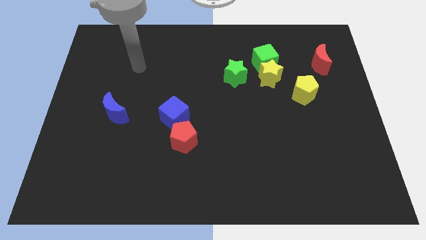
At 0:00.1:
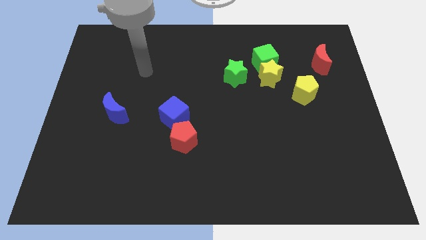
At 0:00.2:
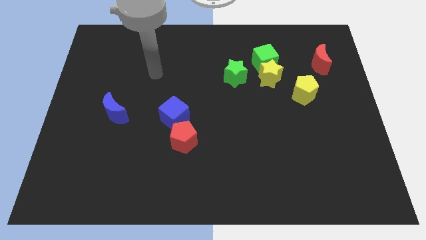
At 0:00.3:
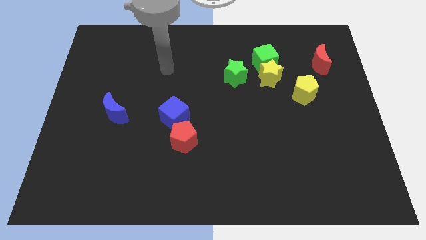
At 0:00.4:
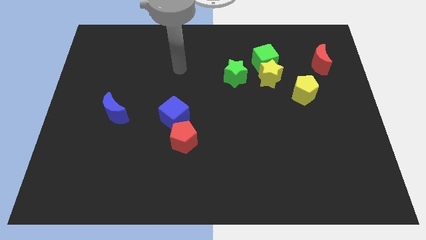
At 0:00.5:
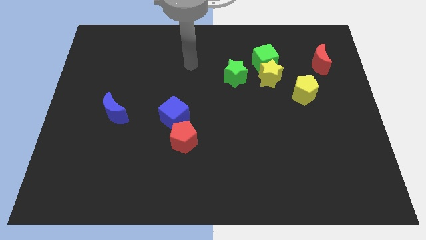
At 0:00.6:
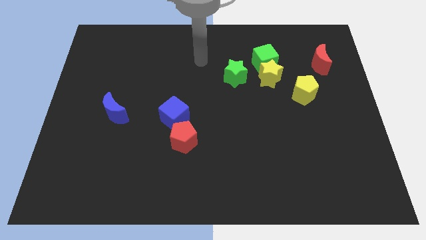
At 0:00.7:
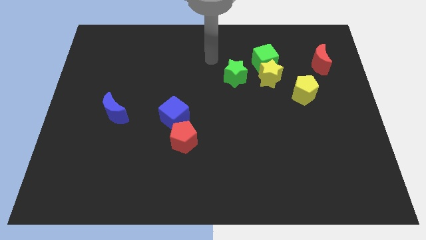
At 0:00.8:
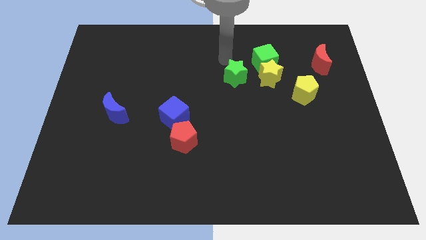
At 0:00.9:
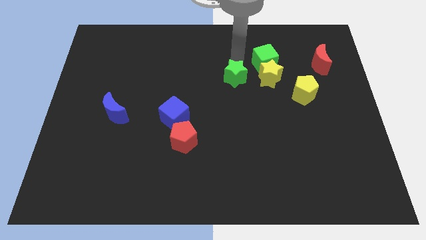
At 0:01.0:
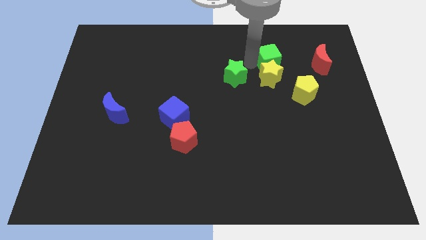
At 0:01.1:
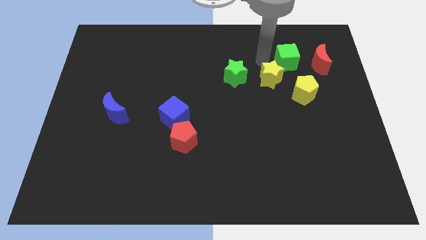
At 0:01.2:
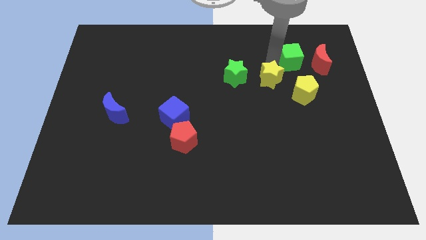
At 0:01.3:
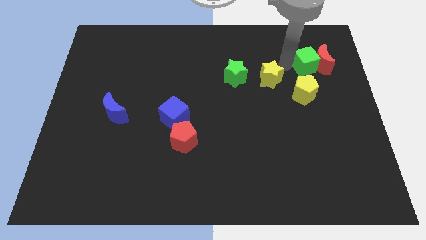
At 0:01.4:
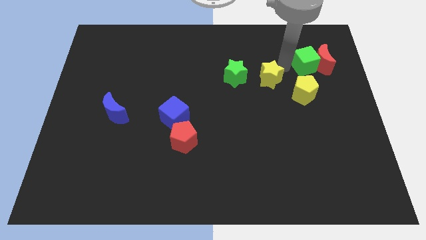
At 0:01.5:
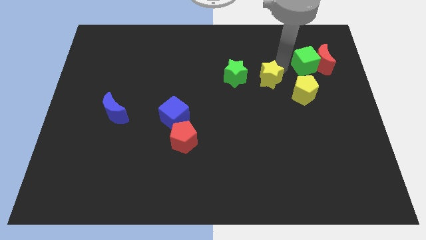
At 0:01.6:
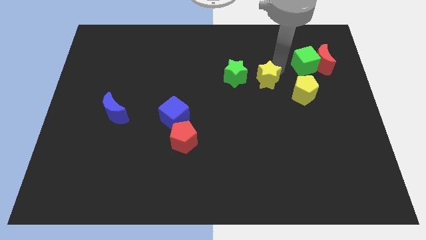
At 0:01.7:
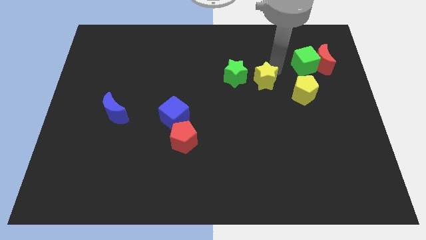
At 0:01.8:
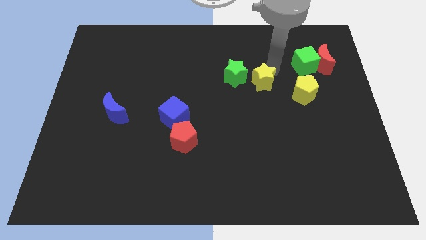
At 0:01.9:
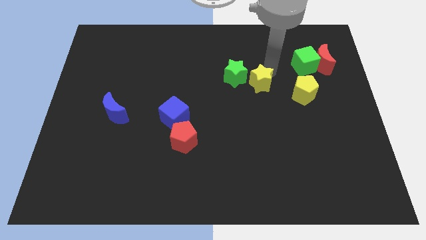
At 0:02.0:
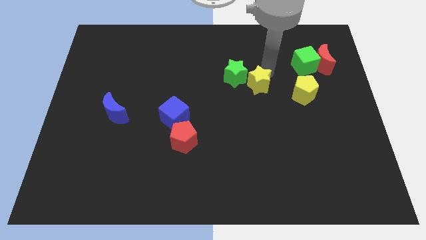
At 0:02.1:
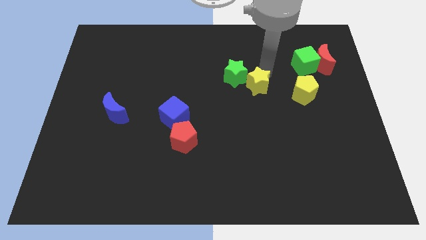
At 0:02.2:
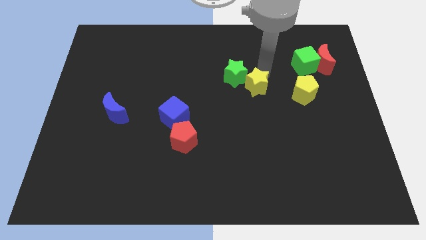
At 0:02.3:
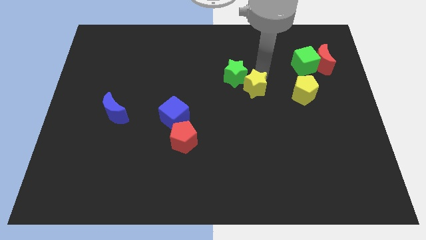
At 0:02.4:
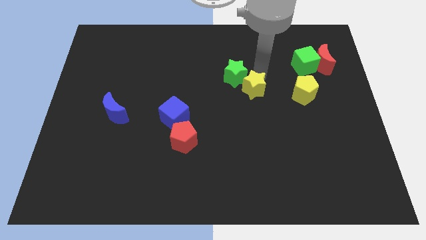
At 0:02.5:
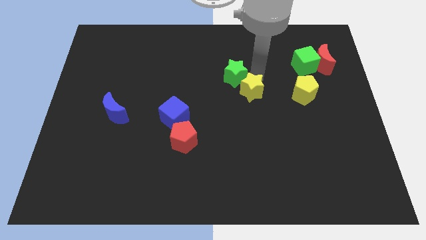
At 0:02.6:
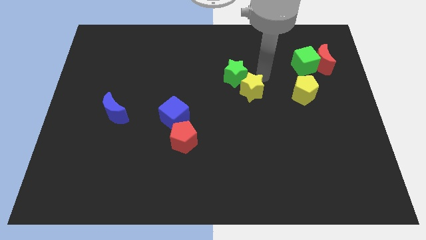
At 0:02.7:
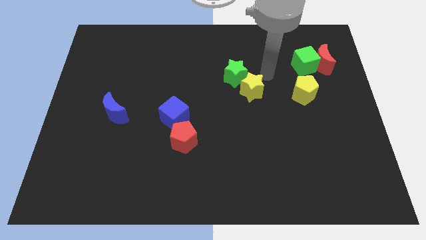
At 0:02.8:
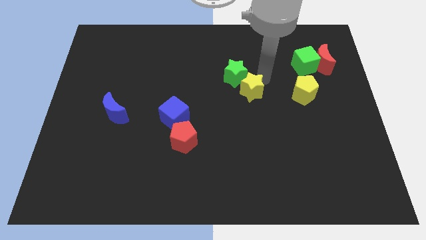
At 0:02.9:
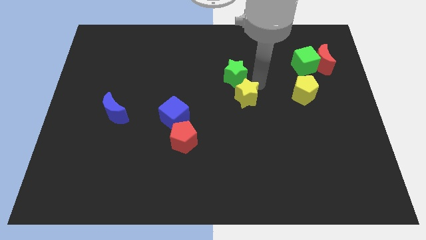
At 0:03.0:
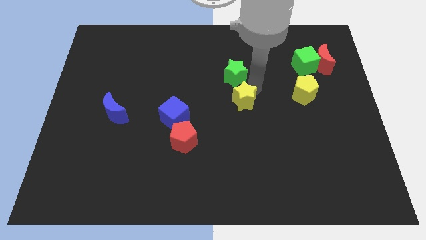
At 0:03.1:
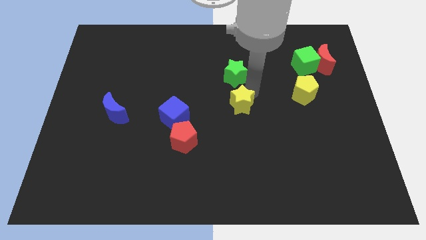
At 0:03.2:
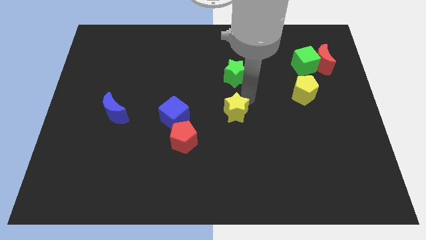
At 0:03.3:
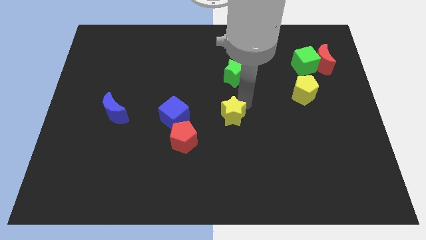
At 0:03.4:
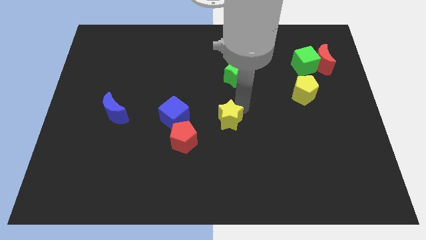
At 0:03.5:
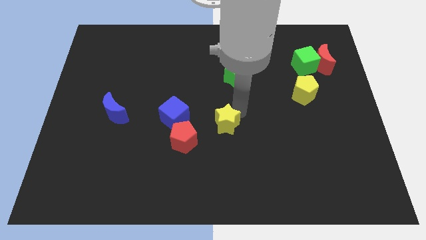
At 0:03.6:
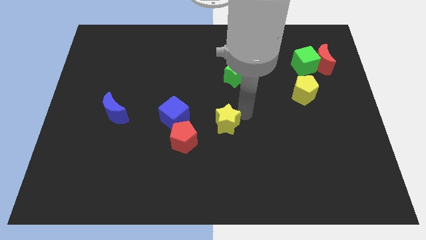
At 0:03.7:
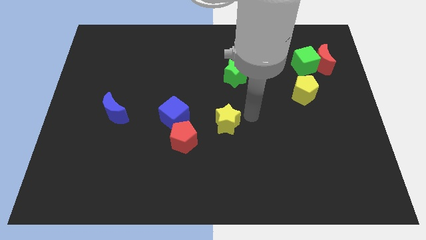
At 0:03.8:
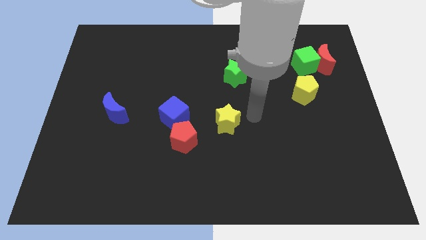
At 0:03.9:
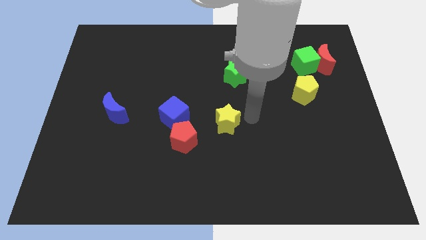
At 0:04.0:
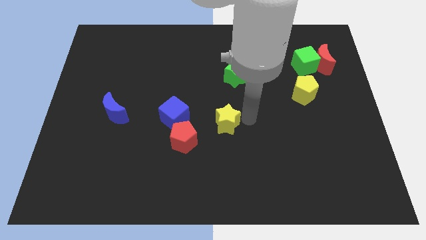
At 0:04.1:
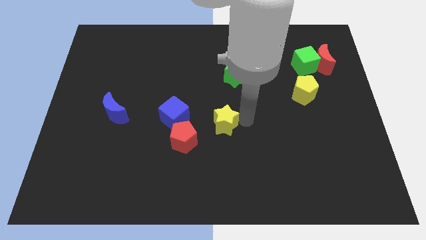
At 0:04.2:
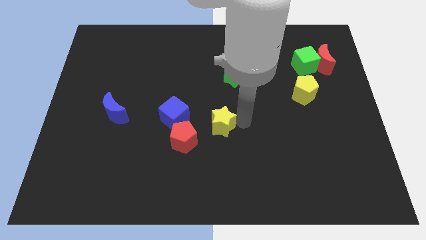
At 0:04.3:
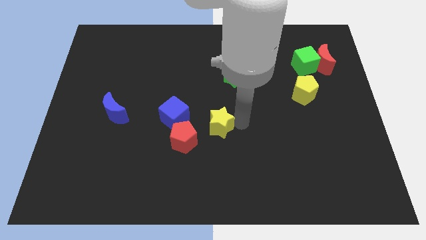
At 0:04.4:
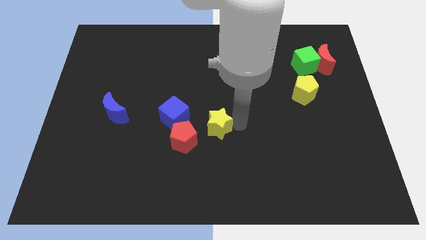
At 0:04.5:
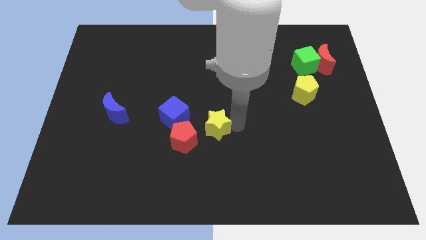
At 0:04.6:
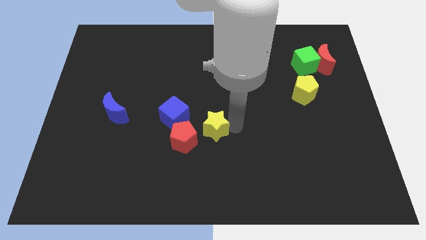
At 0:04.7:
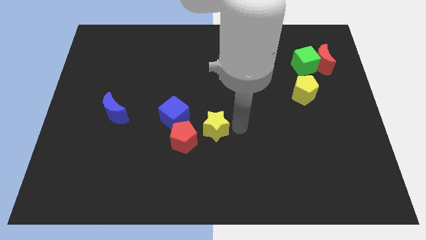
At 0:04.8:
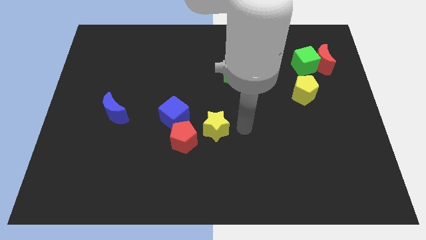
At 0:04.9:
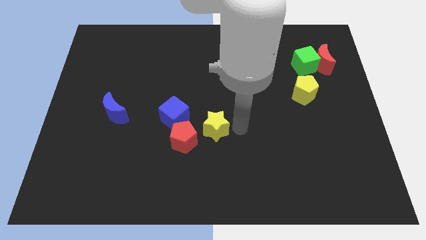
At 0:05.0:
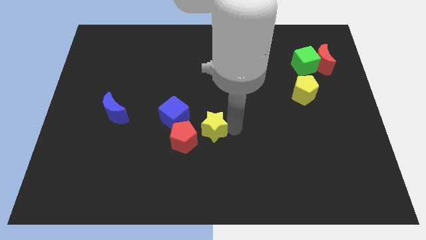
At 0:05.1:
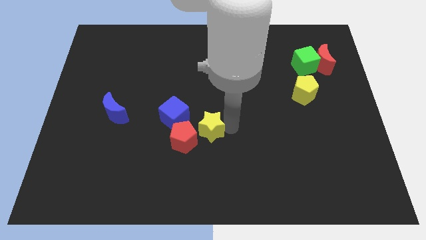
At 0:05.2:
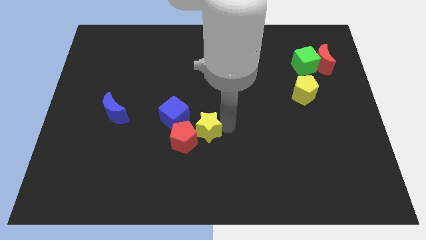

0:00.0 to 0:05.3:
push the yellow star towards the red pentagon

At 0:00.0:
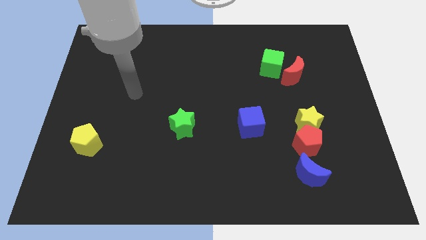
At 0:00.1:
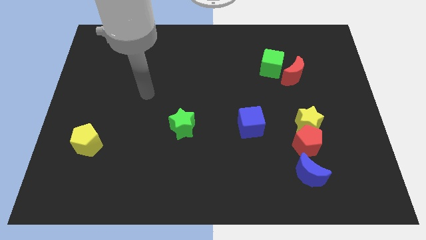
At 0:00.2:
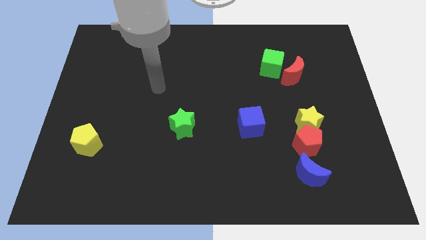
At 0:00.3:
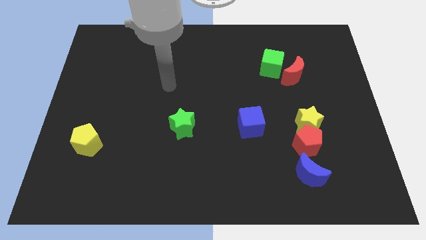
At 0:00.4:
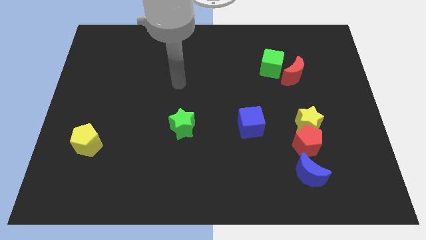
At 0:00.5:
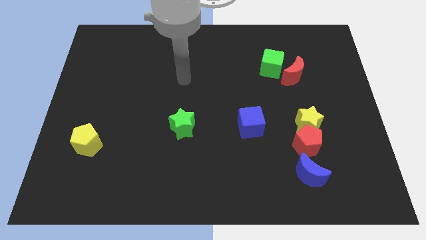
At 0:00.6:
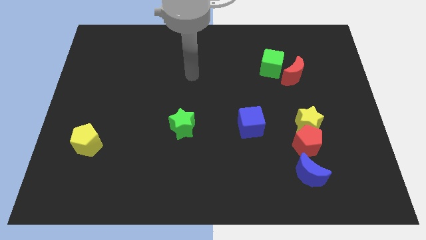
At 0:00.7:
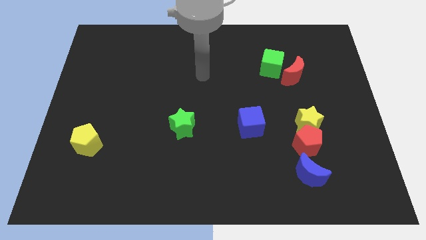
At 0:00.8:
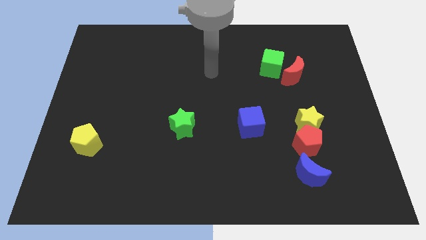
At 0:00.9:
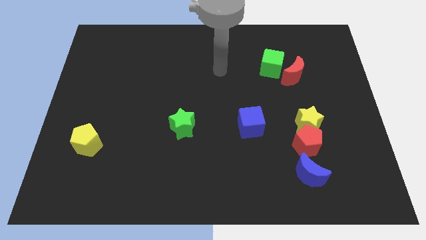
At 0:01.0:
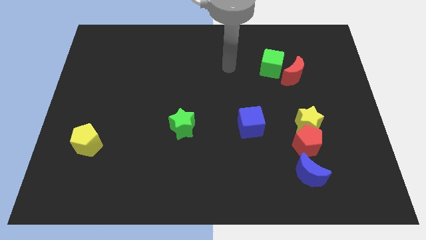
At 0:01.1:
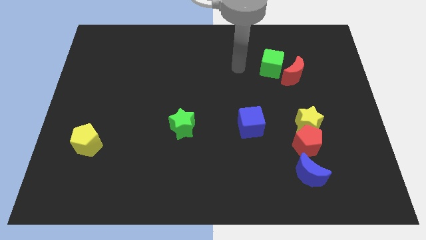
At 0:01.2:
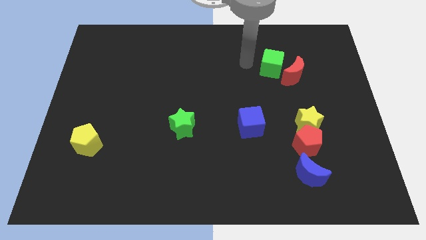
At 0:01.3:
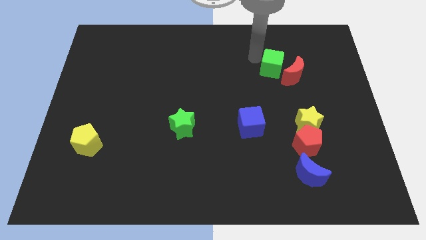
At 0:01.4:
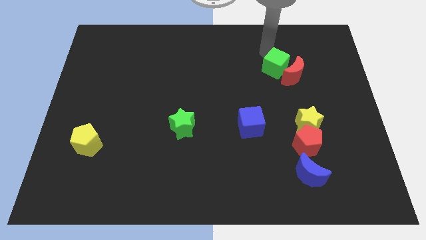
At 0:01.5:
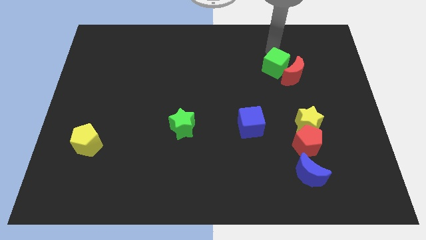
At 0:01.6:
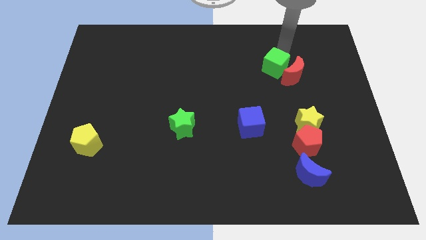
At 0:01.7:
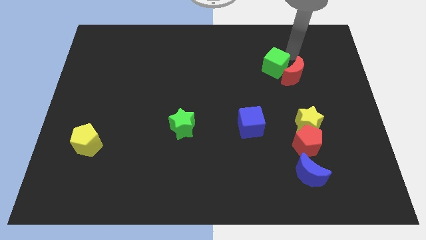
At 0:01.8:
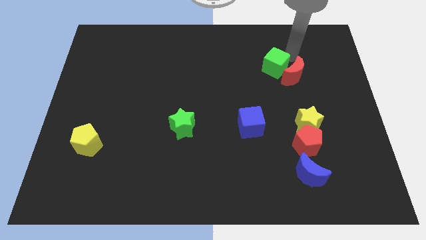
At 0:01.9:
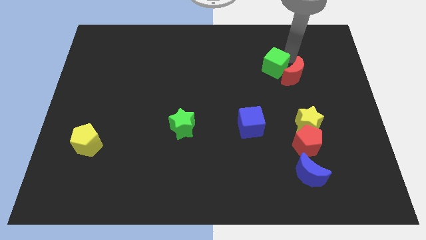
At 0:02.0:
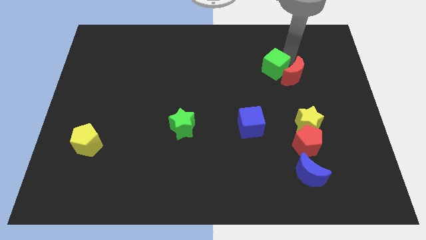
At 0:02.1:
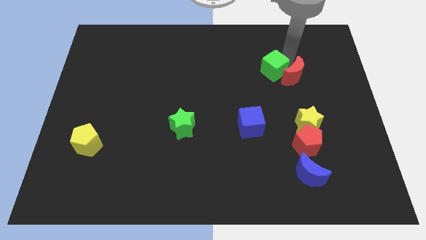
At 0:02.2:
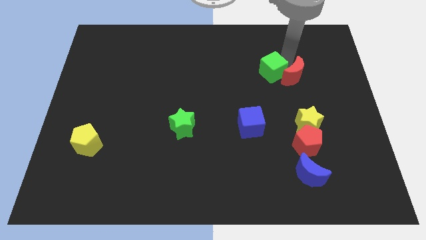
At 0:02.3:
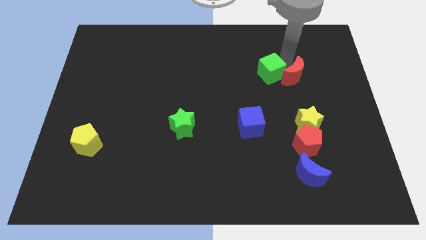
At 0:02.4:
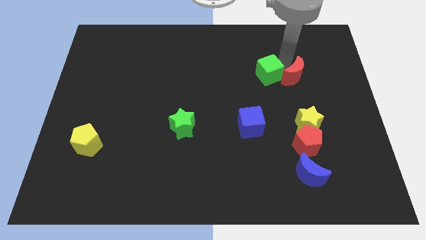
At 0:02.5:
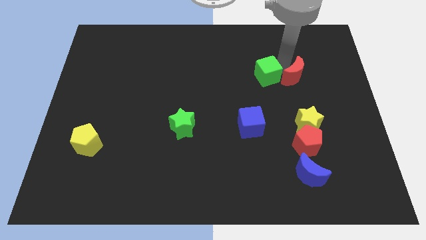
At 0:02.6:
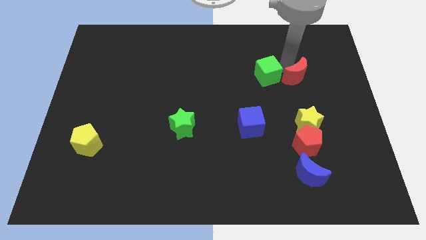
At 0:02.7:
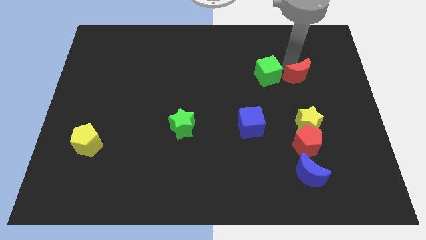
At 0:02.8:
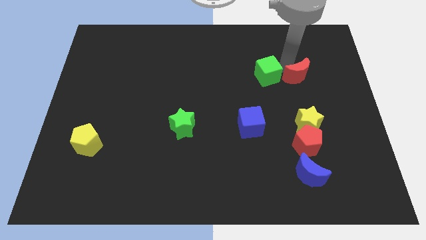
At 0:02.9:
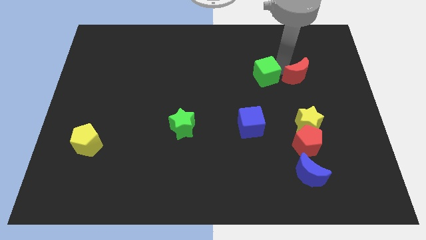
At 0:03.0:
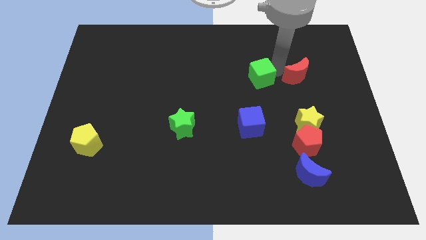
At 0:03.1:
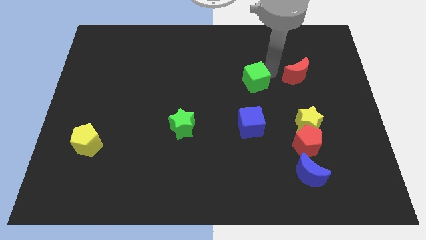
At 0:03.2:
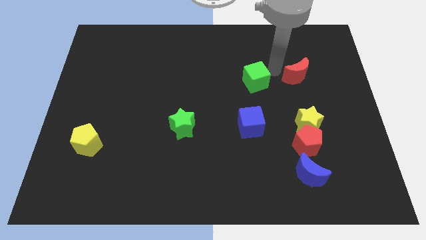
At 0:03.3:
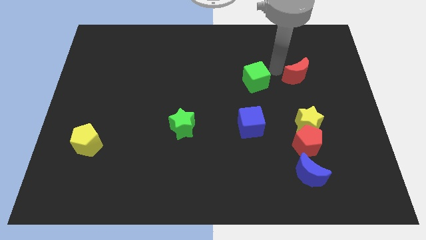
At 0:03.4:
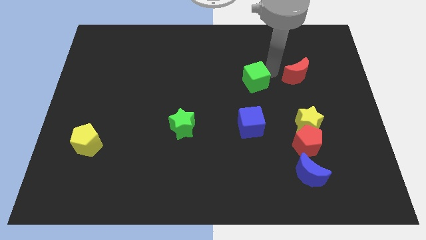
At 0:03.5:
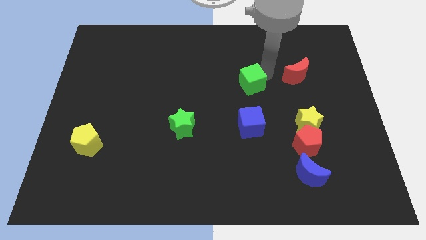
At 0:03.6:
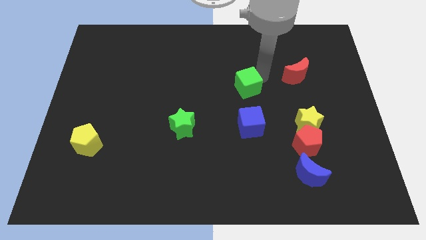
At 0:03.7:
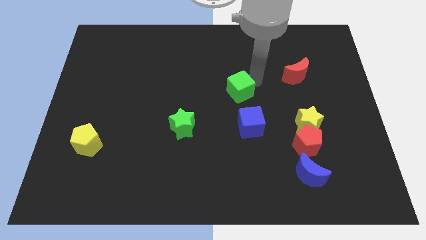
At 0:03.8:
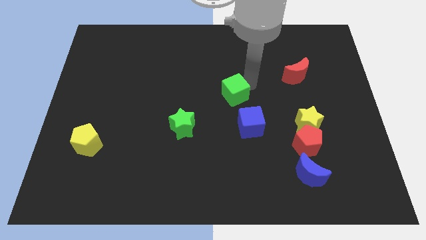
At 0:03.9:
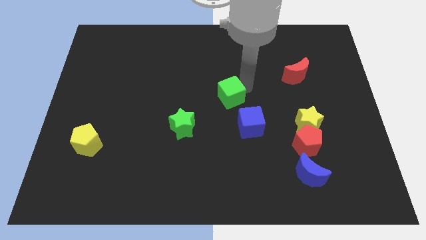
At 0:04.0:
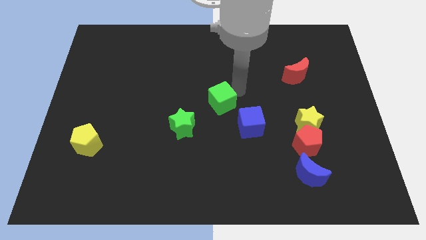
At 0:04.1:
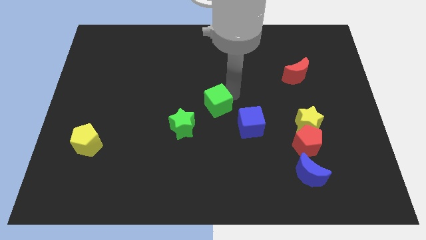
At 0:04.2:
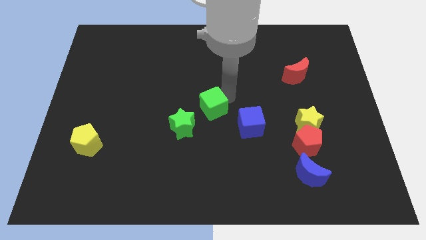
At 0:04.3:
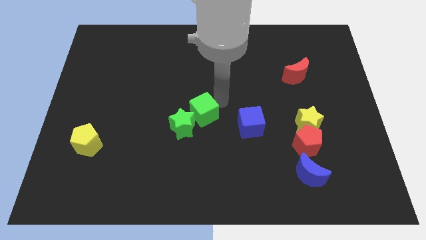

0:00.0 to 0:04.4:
slide the green cube next to the green star
